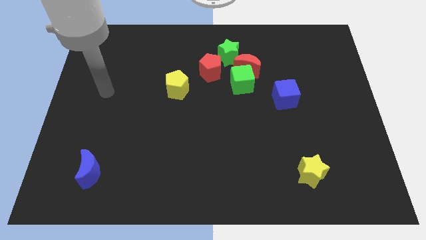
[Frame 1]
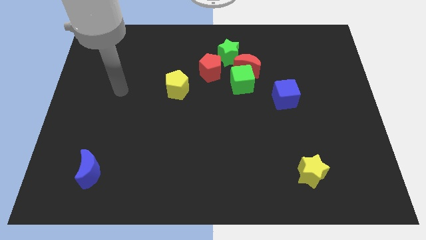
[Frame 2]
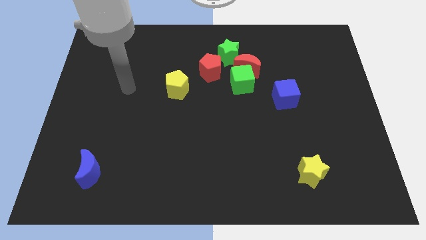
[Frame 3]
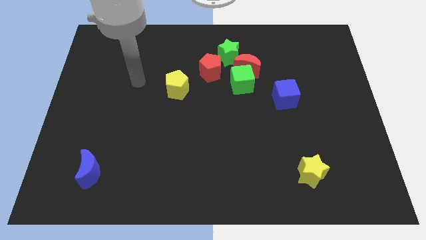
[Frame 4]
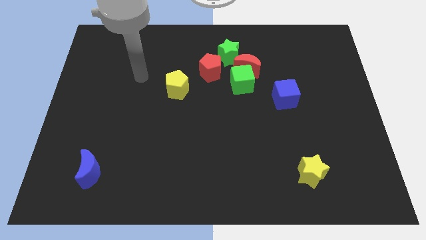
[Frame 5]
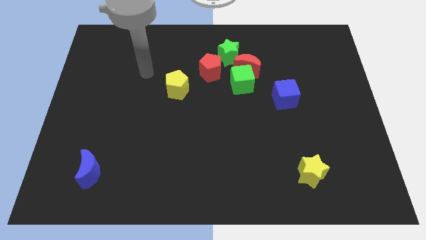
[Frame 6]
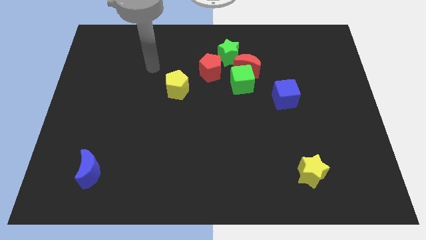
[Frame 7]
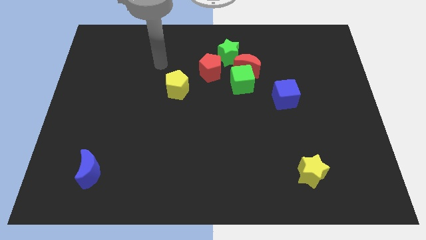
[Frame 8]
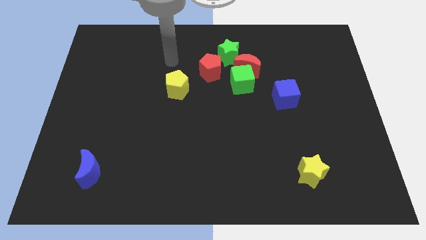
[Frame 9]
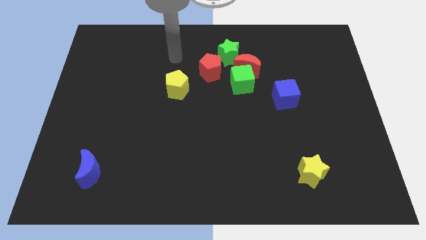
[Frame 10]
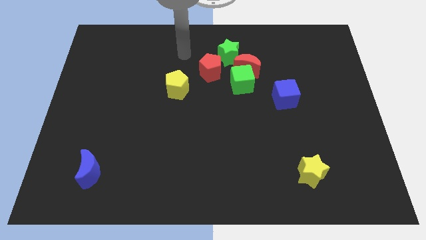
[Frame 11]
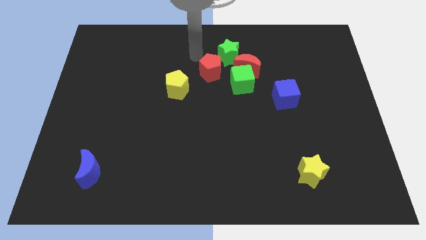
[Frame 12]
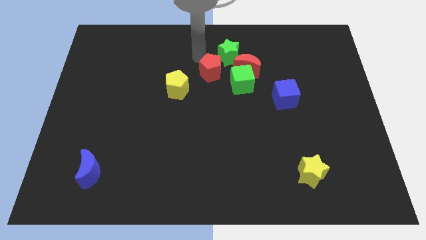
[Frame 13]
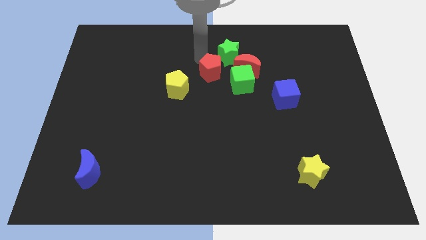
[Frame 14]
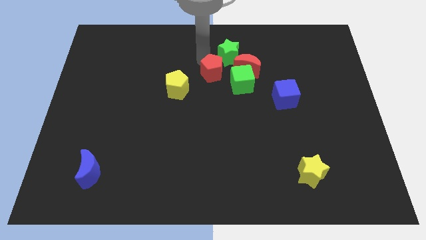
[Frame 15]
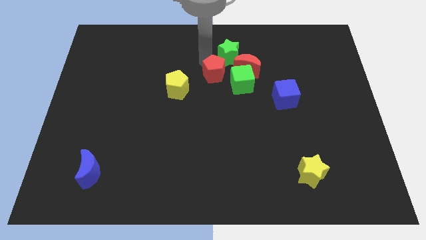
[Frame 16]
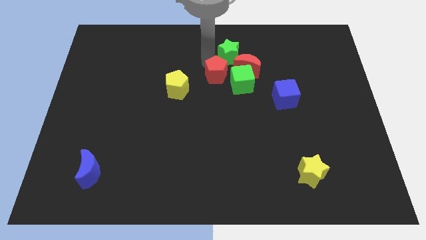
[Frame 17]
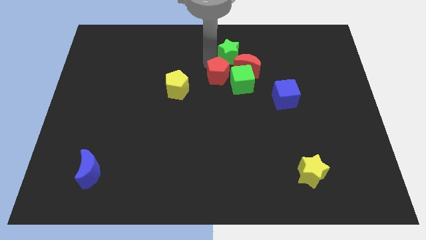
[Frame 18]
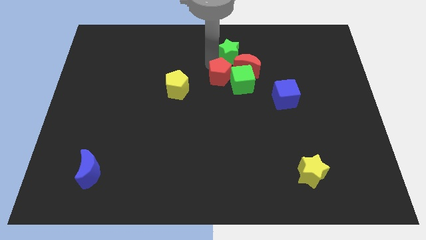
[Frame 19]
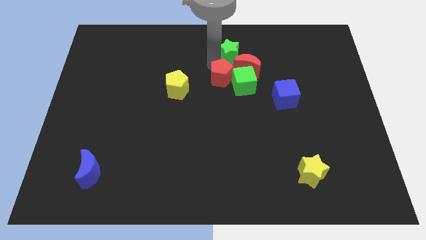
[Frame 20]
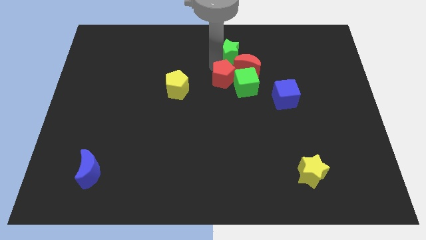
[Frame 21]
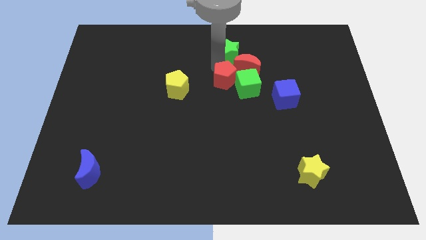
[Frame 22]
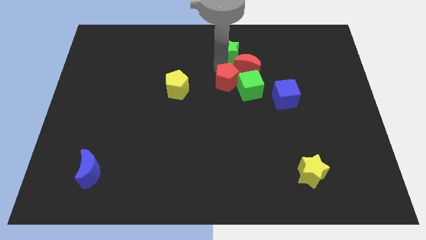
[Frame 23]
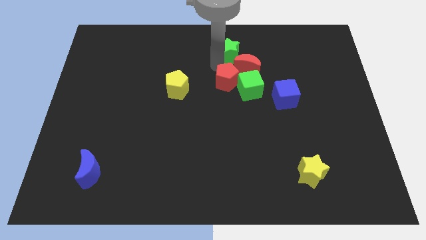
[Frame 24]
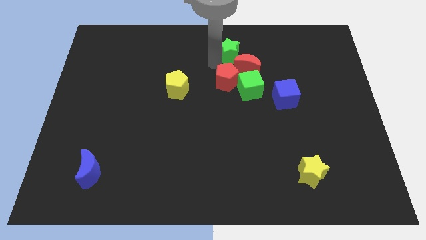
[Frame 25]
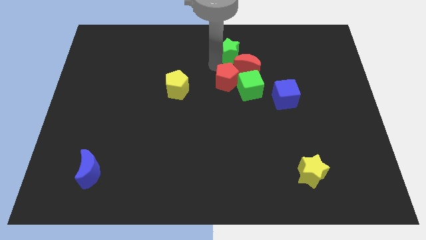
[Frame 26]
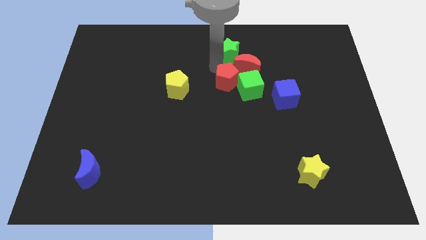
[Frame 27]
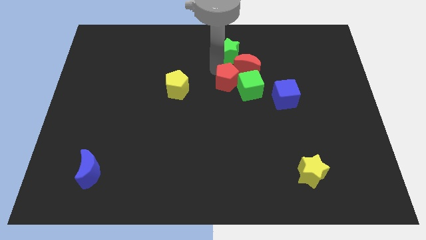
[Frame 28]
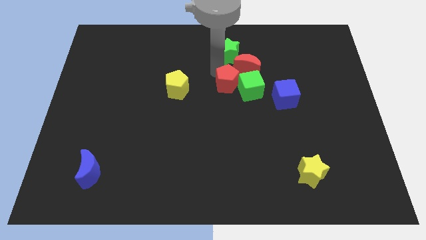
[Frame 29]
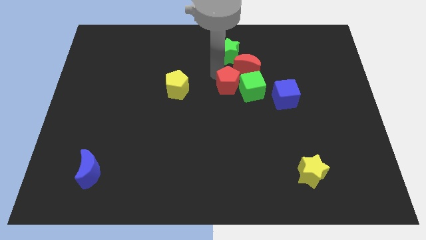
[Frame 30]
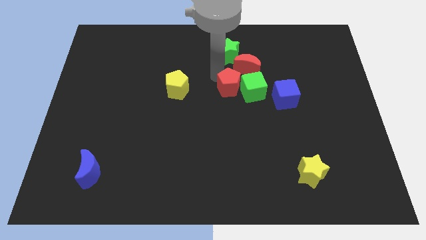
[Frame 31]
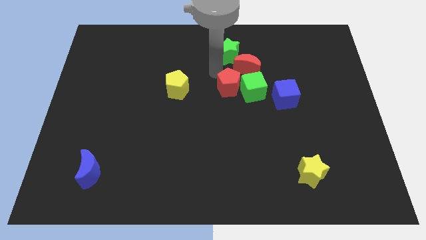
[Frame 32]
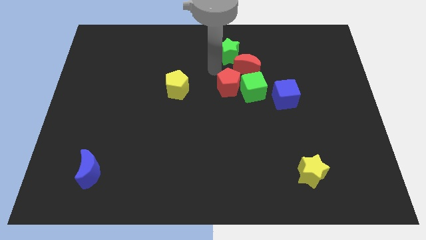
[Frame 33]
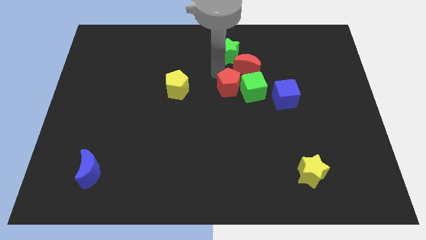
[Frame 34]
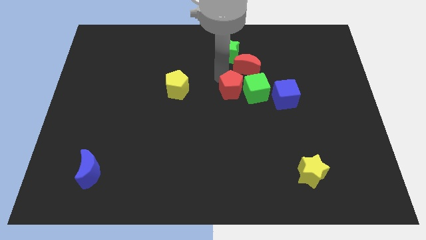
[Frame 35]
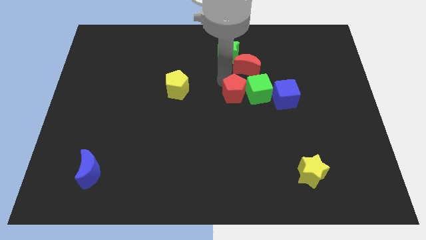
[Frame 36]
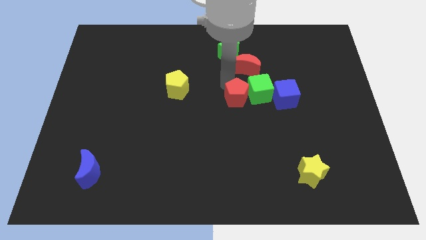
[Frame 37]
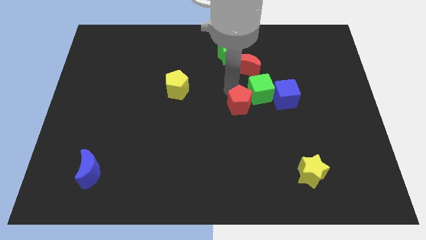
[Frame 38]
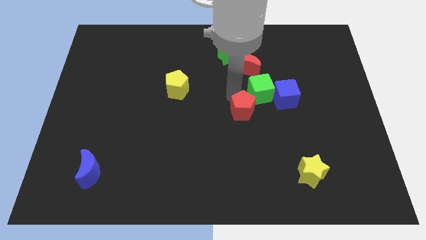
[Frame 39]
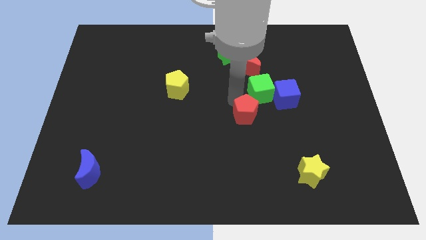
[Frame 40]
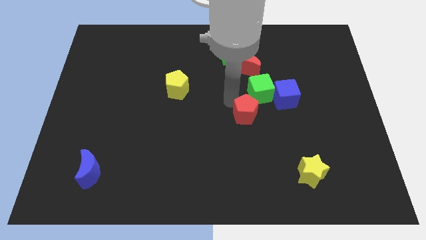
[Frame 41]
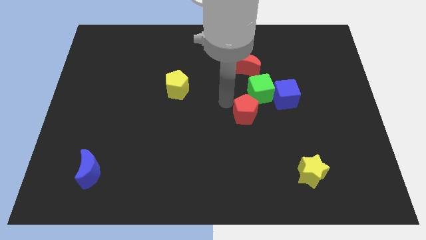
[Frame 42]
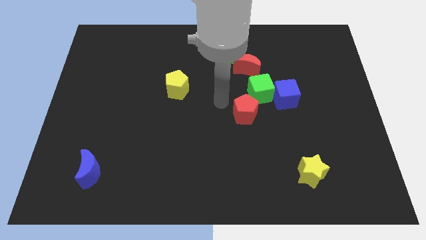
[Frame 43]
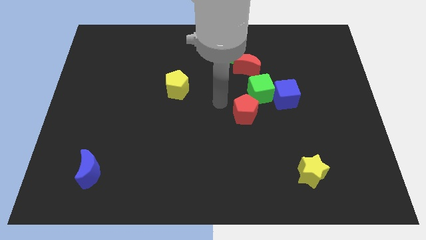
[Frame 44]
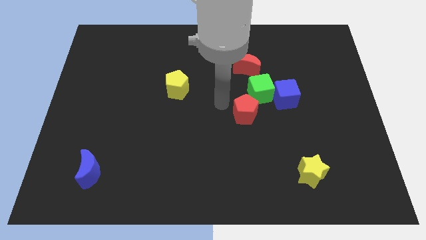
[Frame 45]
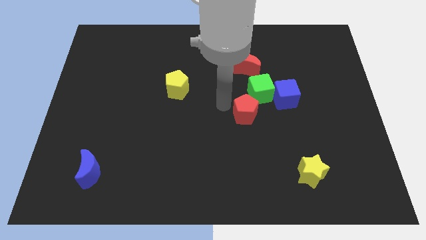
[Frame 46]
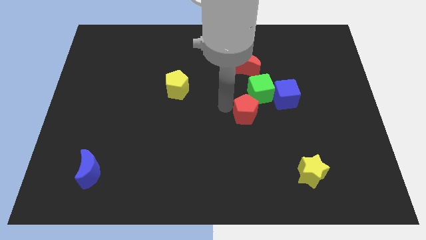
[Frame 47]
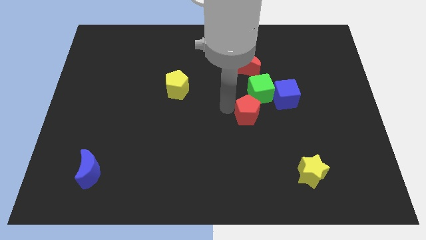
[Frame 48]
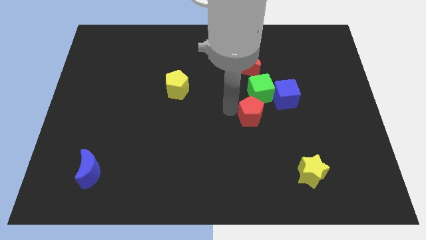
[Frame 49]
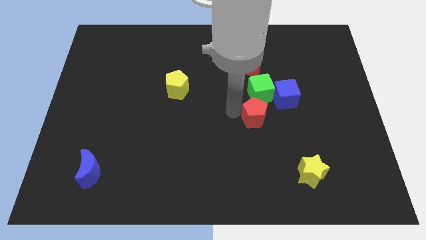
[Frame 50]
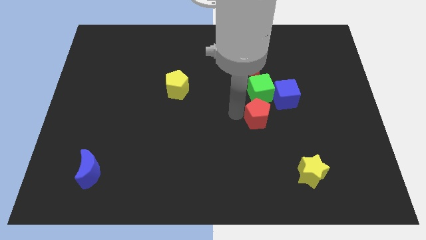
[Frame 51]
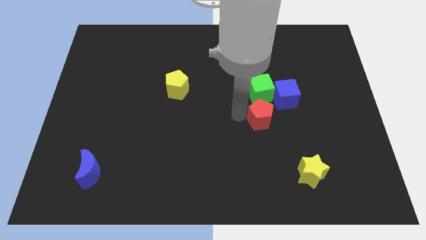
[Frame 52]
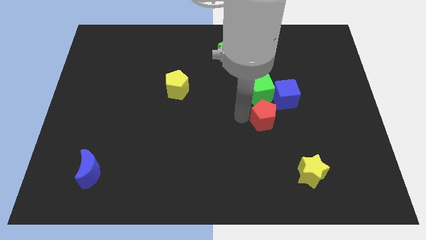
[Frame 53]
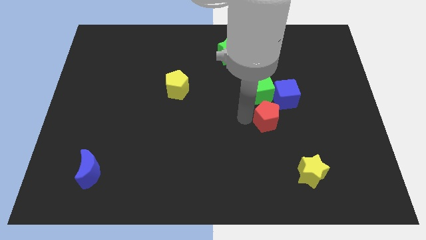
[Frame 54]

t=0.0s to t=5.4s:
move the red pentagon diagonally downwards and to the right

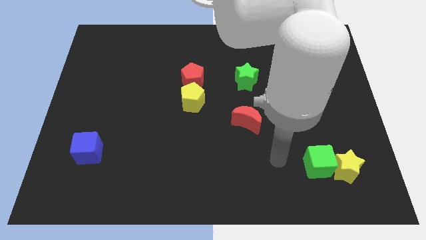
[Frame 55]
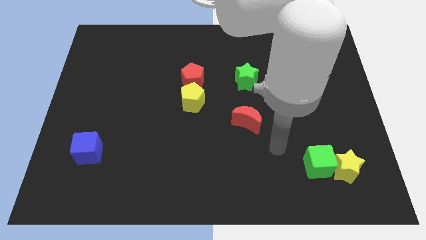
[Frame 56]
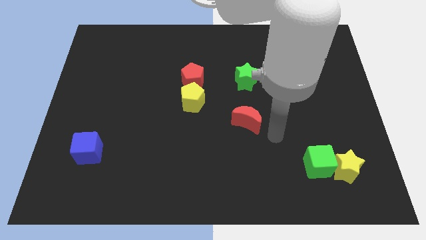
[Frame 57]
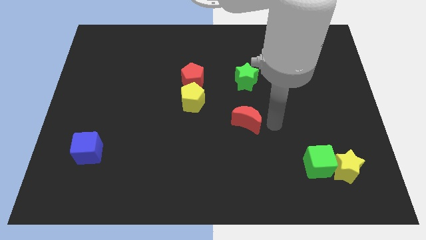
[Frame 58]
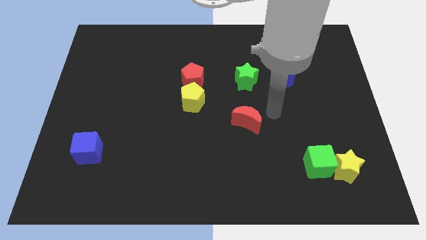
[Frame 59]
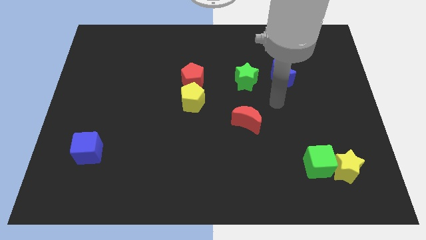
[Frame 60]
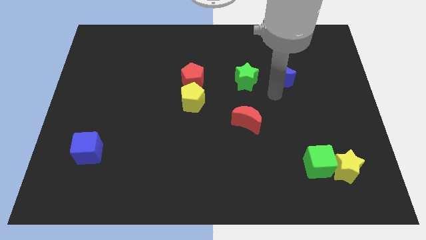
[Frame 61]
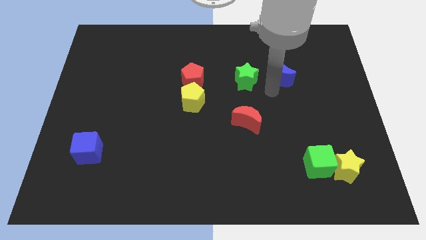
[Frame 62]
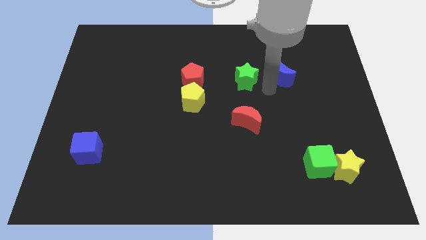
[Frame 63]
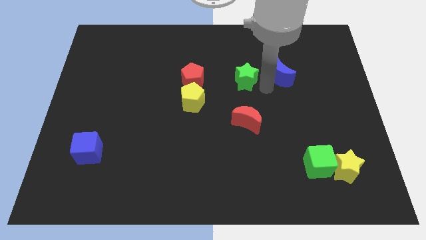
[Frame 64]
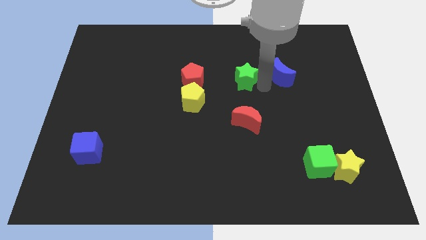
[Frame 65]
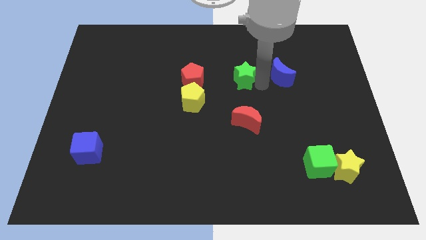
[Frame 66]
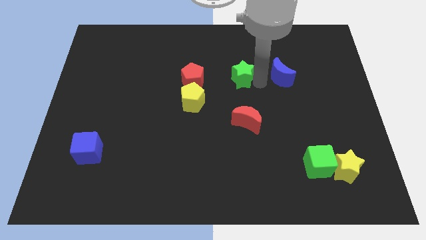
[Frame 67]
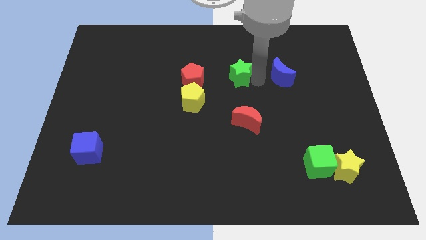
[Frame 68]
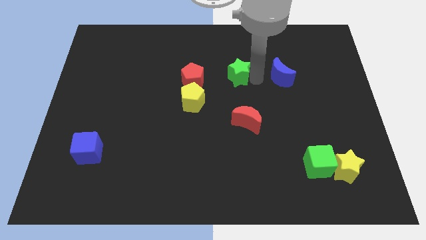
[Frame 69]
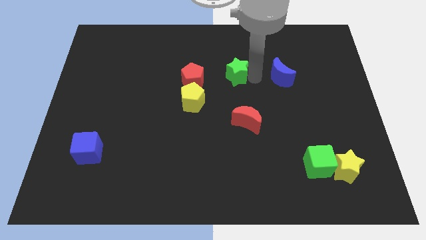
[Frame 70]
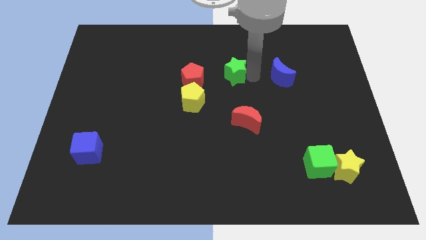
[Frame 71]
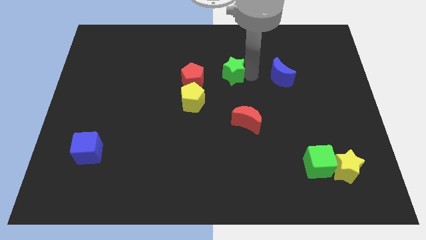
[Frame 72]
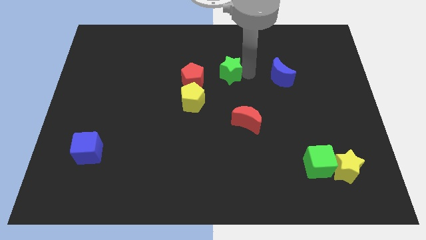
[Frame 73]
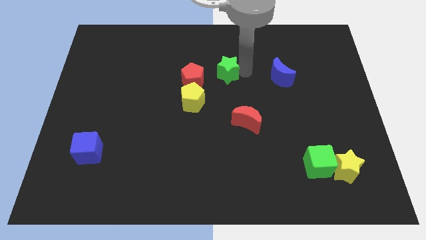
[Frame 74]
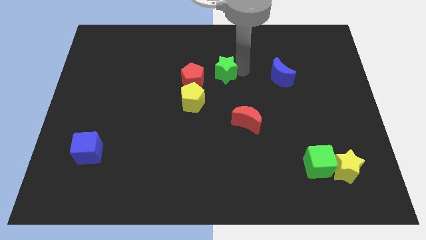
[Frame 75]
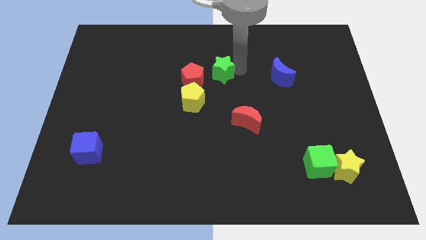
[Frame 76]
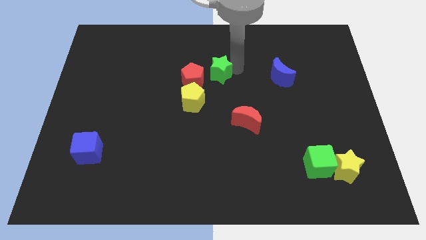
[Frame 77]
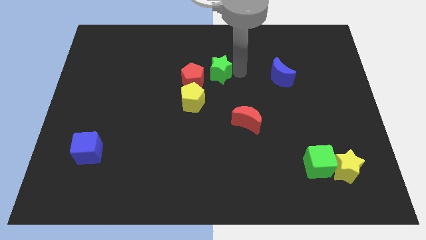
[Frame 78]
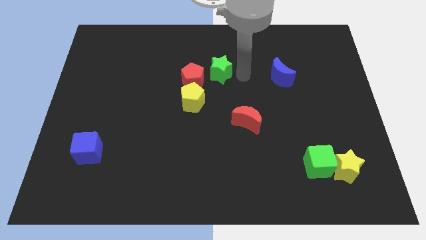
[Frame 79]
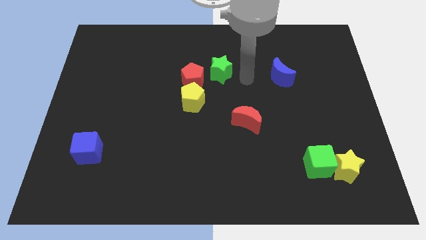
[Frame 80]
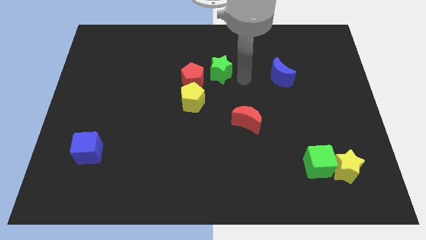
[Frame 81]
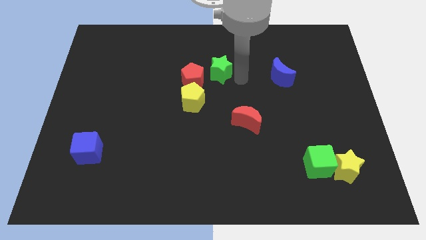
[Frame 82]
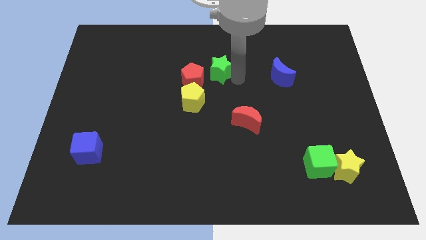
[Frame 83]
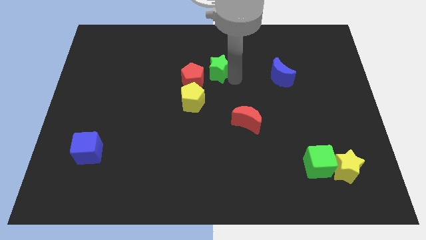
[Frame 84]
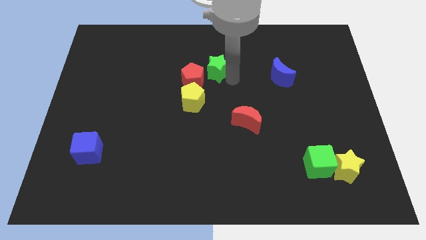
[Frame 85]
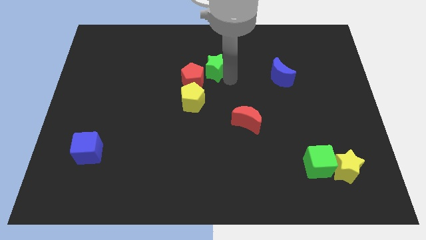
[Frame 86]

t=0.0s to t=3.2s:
slightly push the green star to the left
